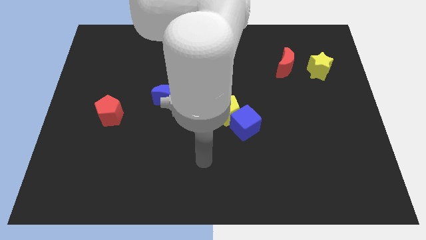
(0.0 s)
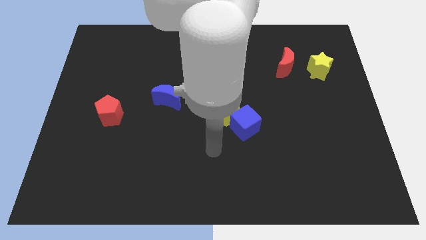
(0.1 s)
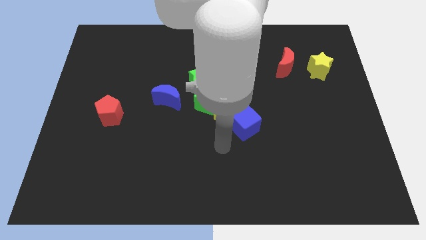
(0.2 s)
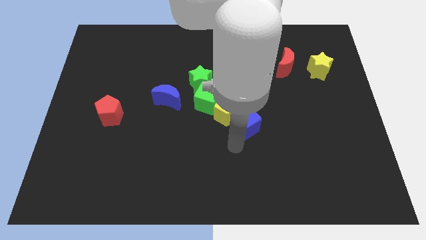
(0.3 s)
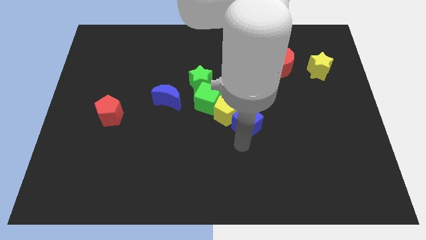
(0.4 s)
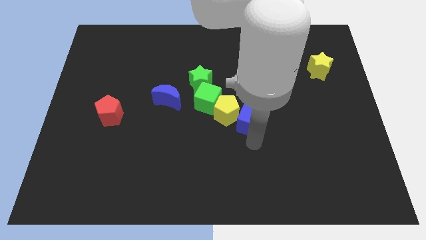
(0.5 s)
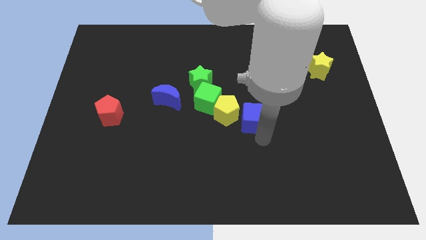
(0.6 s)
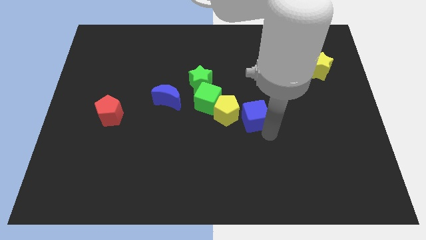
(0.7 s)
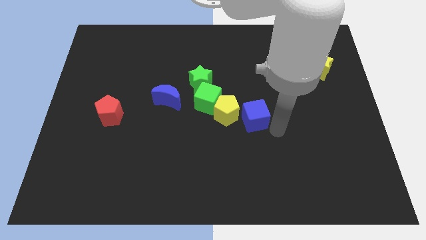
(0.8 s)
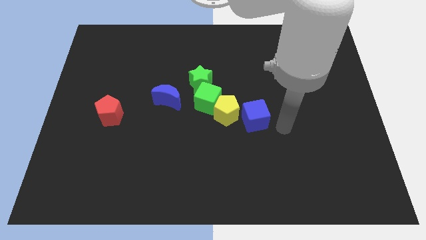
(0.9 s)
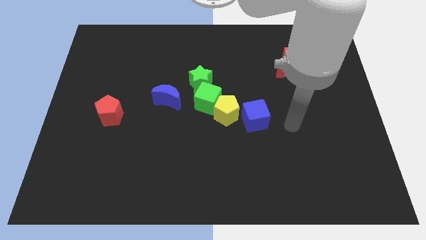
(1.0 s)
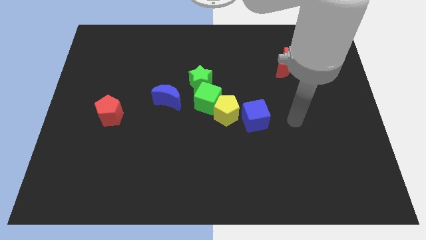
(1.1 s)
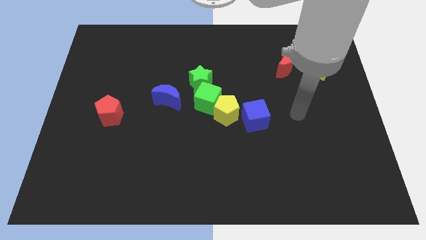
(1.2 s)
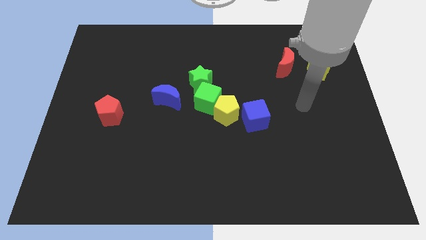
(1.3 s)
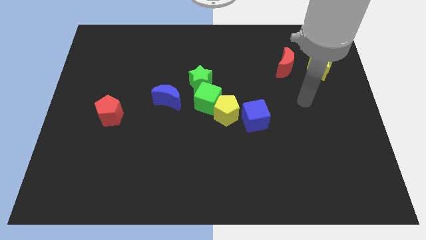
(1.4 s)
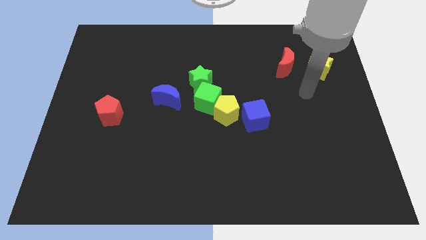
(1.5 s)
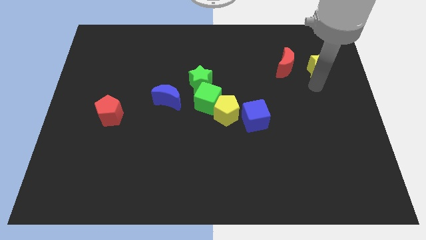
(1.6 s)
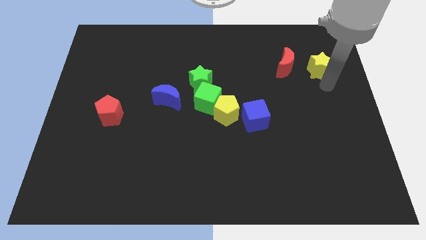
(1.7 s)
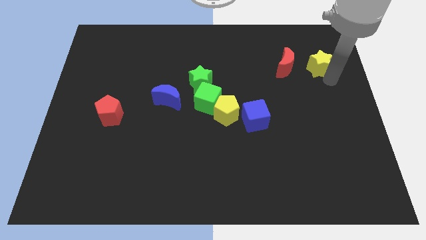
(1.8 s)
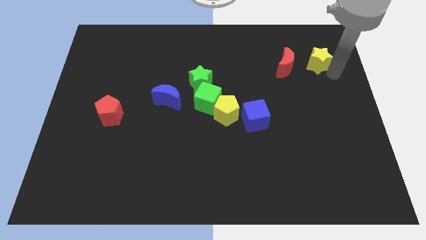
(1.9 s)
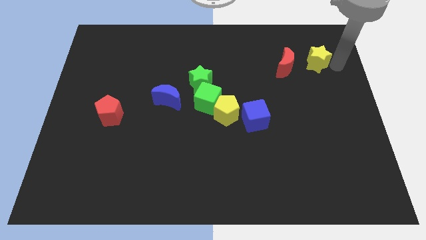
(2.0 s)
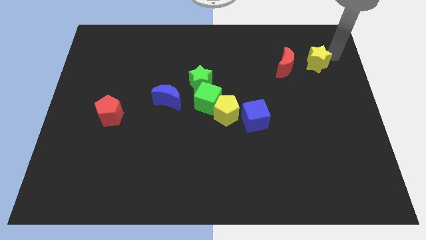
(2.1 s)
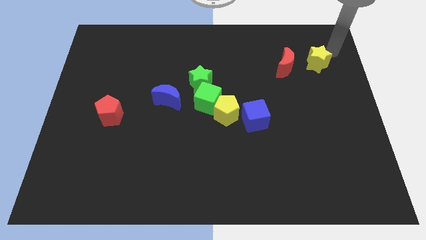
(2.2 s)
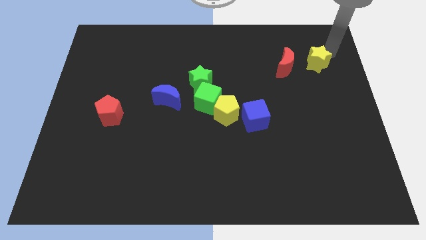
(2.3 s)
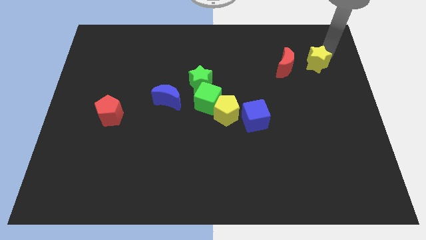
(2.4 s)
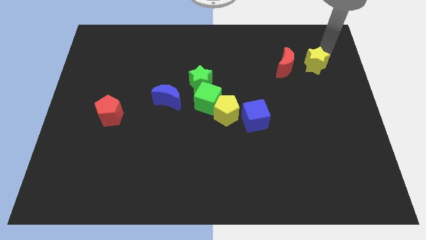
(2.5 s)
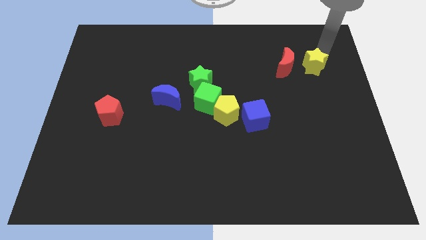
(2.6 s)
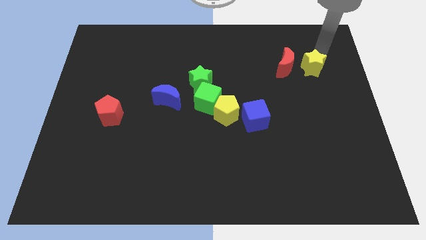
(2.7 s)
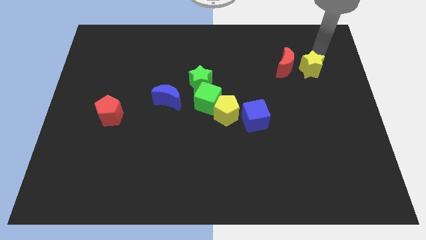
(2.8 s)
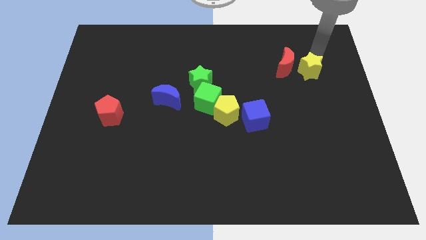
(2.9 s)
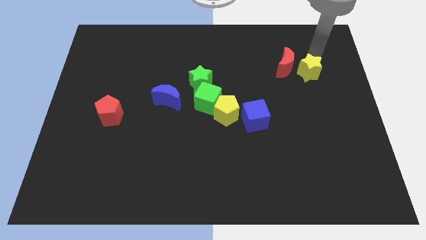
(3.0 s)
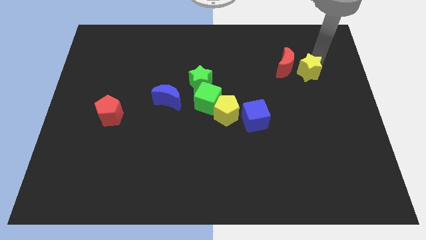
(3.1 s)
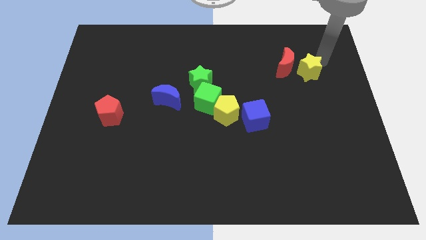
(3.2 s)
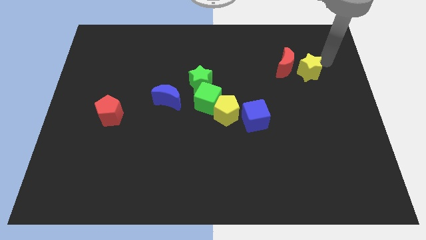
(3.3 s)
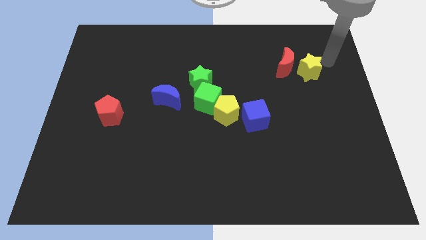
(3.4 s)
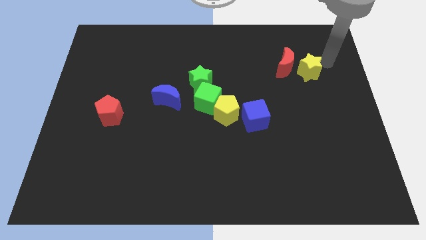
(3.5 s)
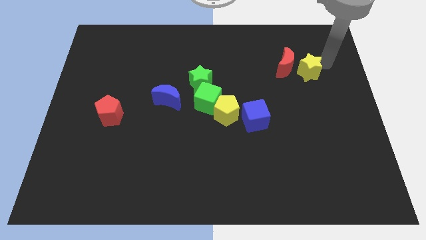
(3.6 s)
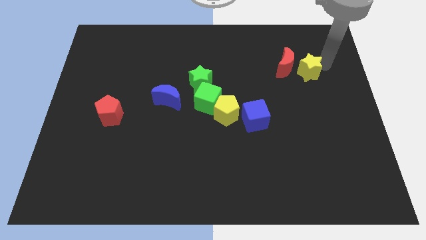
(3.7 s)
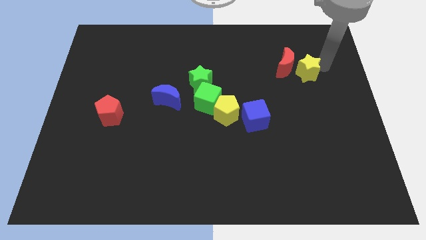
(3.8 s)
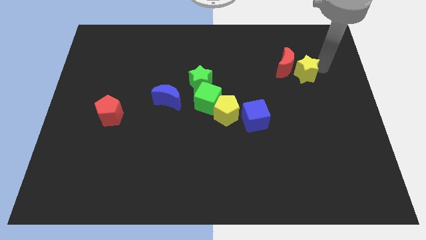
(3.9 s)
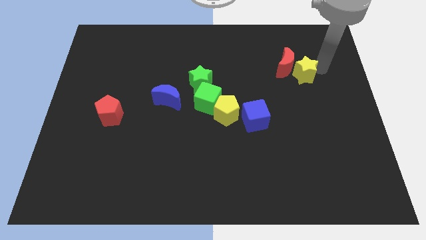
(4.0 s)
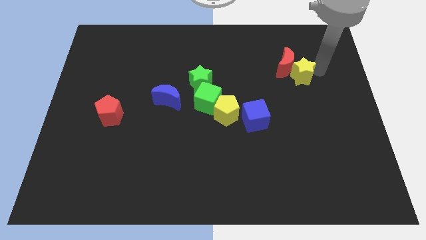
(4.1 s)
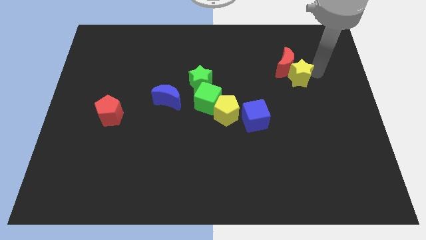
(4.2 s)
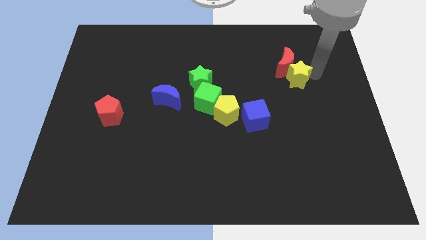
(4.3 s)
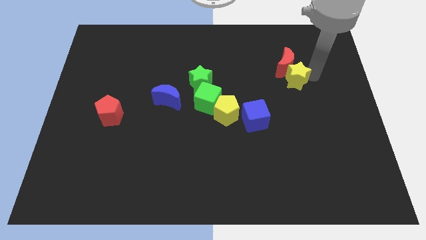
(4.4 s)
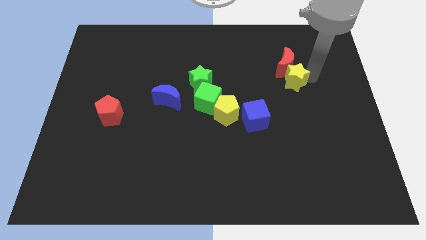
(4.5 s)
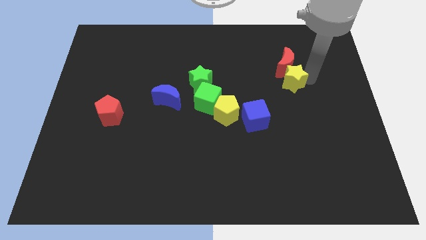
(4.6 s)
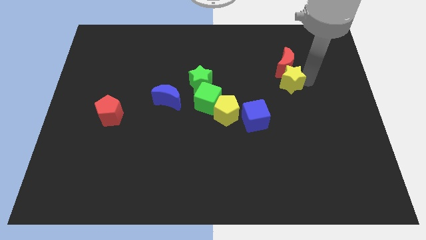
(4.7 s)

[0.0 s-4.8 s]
move the yellow star a little bit to the left

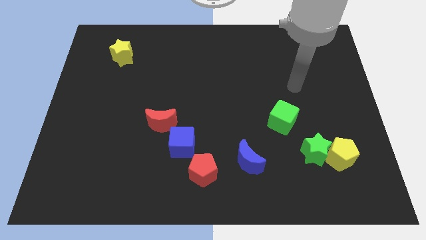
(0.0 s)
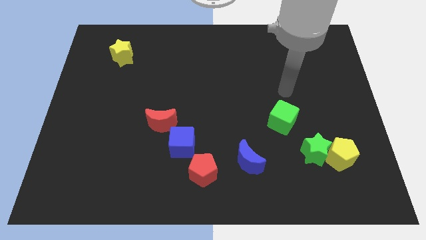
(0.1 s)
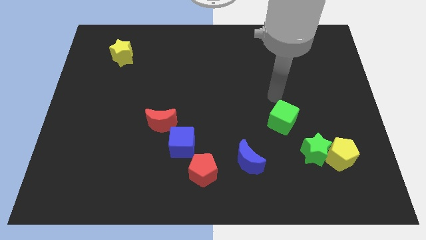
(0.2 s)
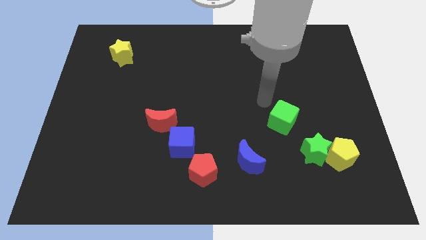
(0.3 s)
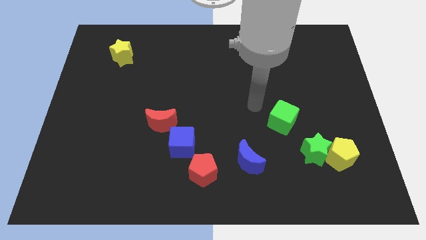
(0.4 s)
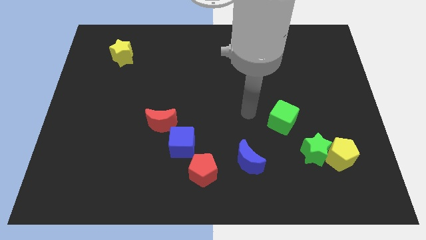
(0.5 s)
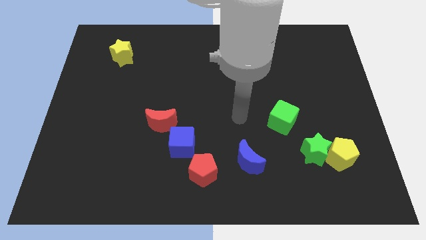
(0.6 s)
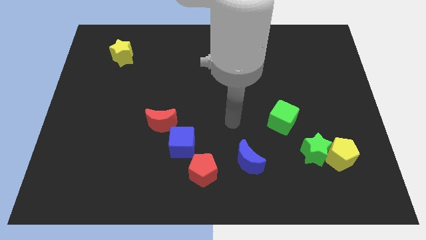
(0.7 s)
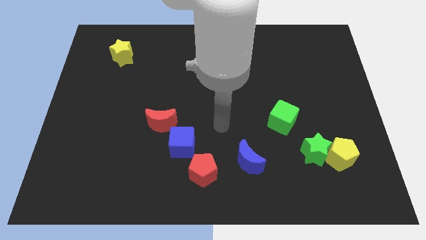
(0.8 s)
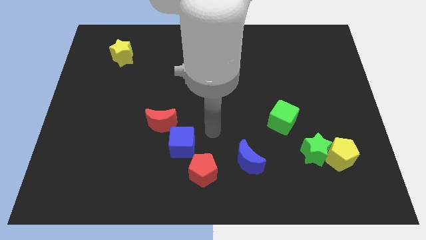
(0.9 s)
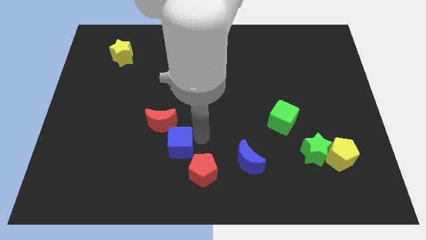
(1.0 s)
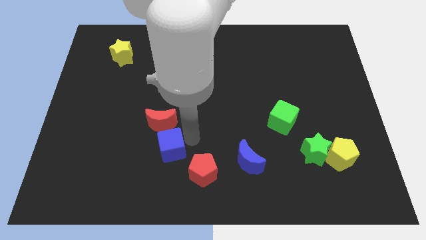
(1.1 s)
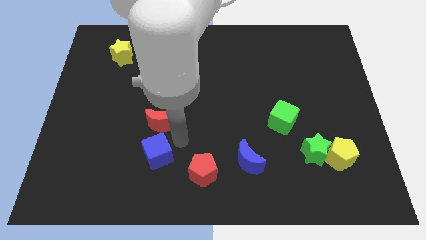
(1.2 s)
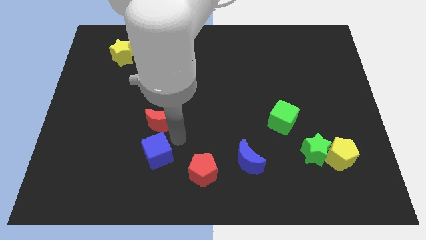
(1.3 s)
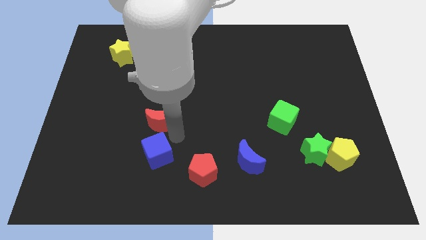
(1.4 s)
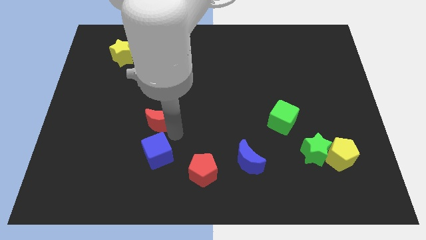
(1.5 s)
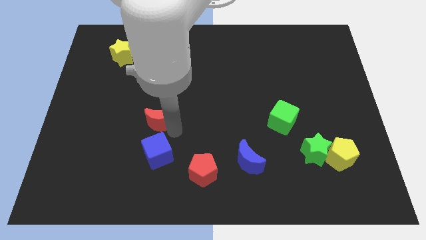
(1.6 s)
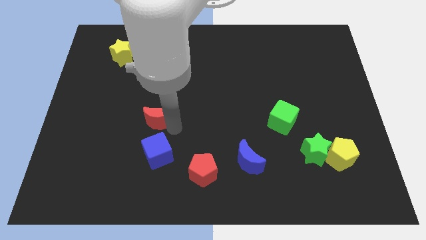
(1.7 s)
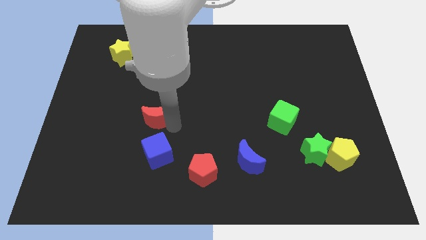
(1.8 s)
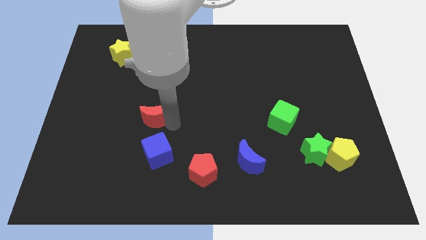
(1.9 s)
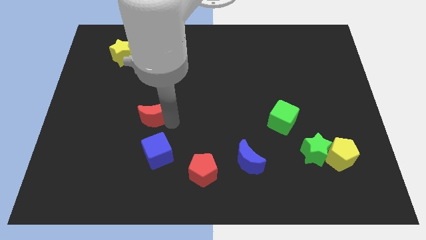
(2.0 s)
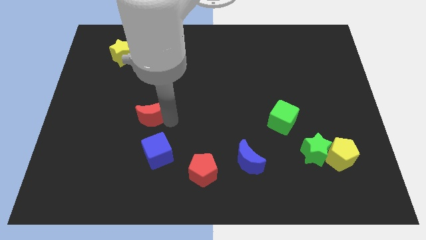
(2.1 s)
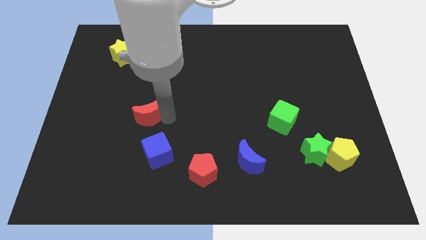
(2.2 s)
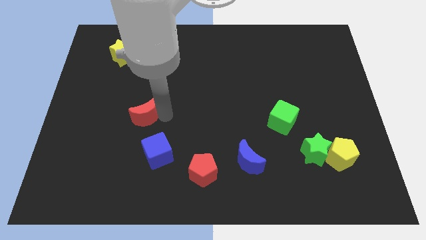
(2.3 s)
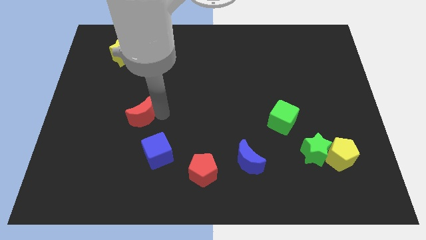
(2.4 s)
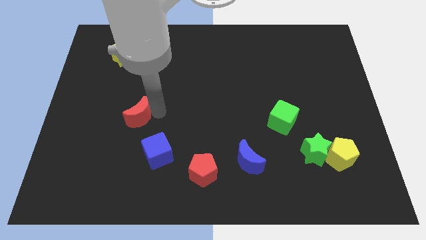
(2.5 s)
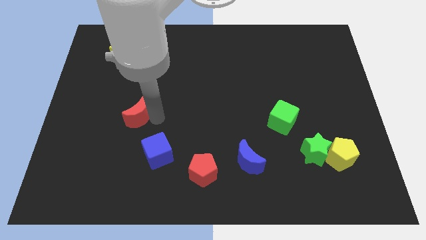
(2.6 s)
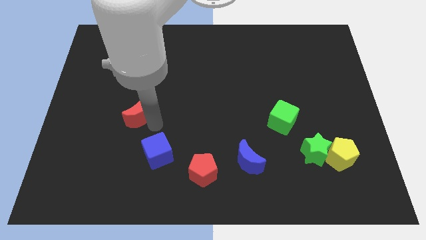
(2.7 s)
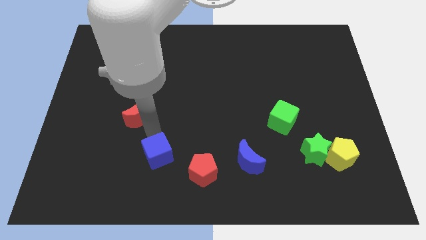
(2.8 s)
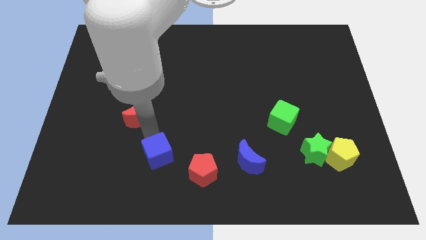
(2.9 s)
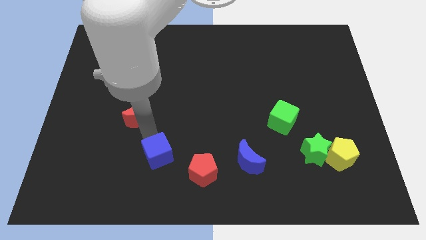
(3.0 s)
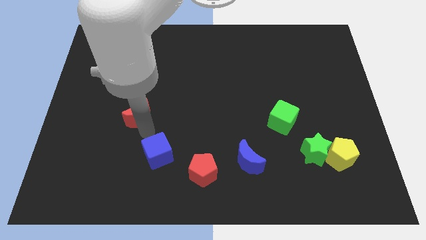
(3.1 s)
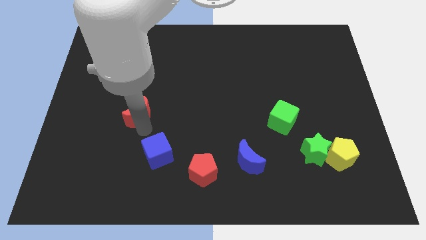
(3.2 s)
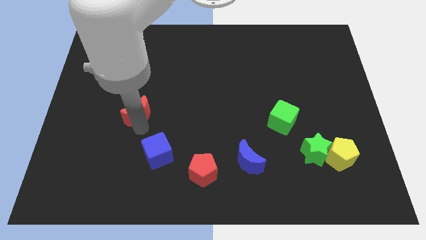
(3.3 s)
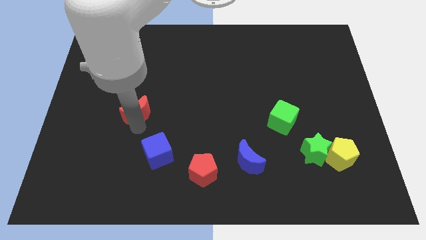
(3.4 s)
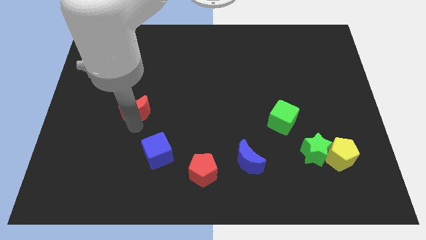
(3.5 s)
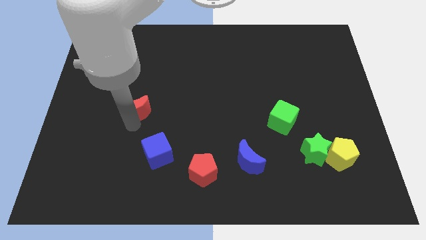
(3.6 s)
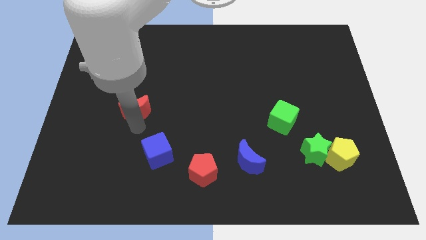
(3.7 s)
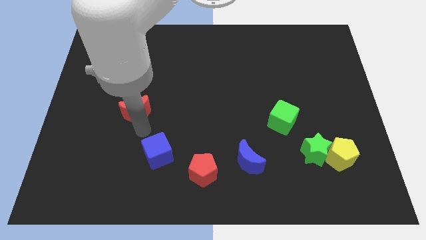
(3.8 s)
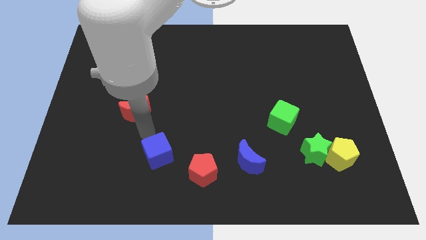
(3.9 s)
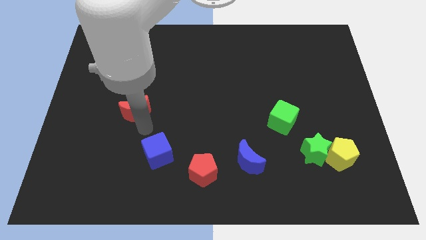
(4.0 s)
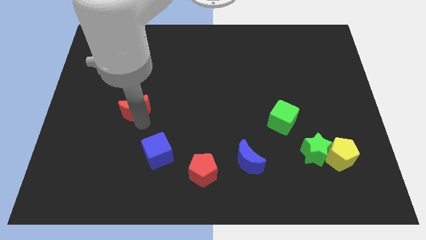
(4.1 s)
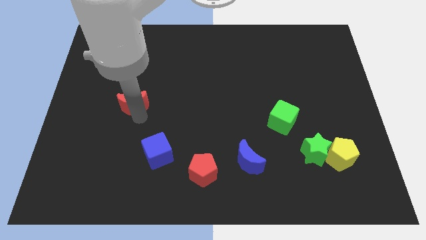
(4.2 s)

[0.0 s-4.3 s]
push the red moon up and left diagonally a little
